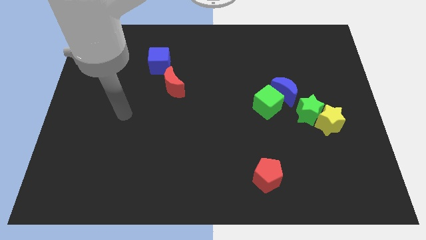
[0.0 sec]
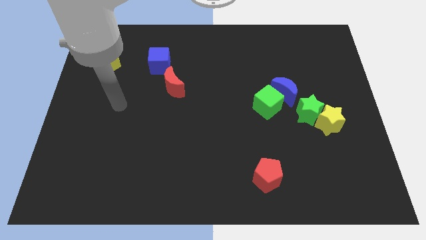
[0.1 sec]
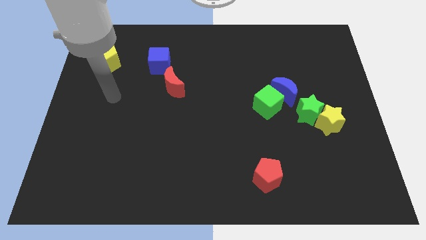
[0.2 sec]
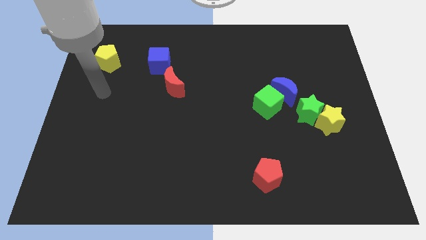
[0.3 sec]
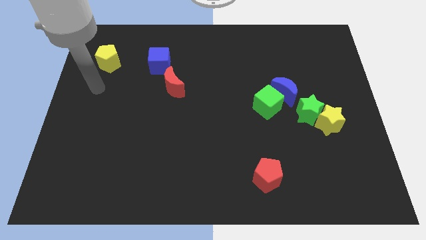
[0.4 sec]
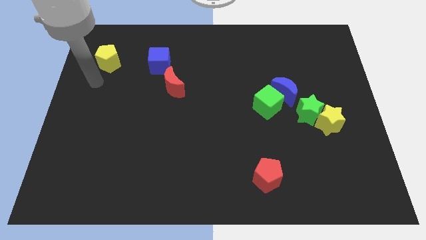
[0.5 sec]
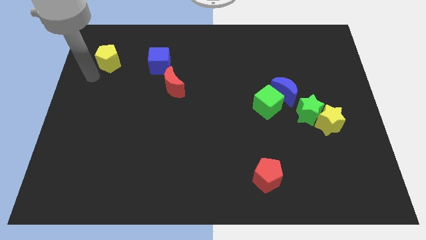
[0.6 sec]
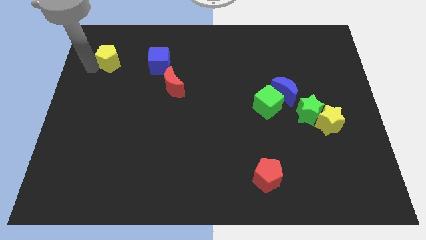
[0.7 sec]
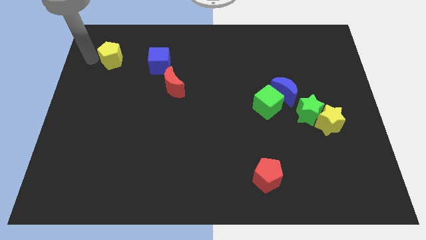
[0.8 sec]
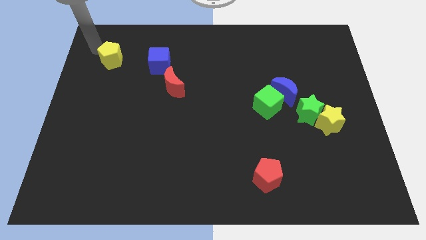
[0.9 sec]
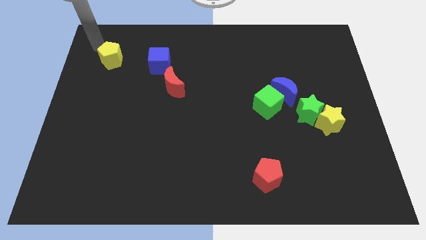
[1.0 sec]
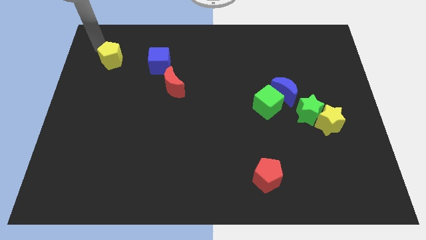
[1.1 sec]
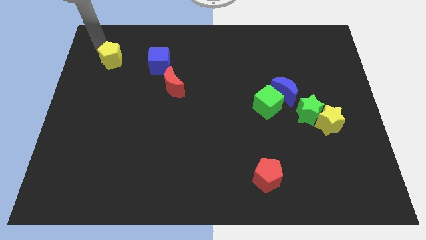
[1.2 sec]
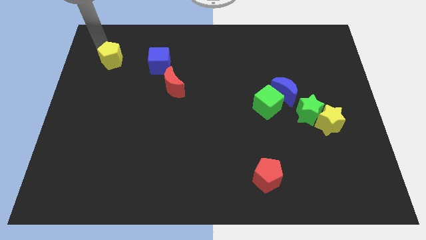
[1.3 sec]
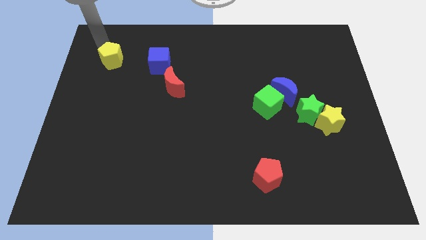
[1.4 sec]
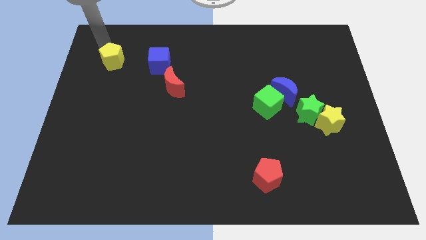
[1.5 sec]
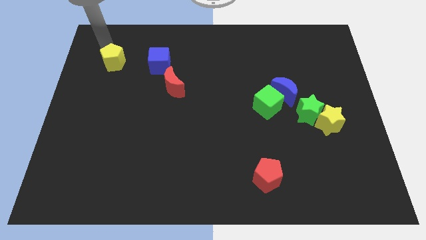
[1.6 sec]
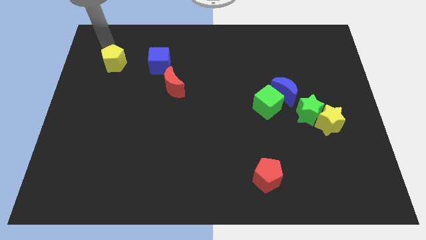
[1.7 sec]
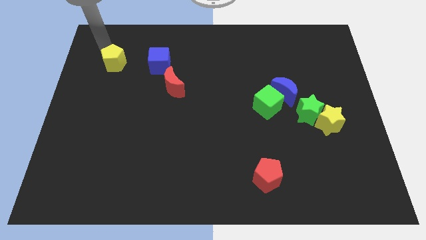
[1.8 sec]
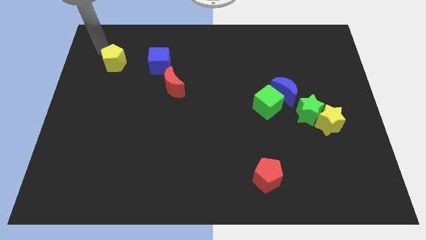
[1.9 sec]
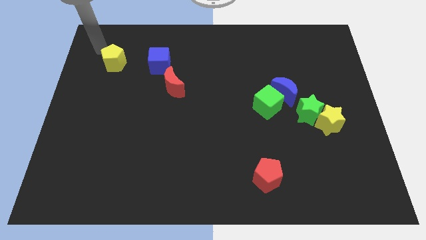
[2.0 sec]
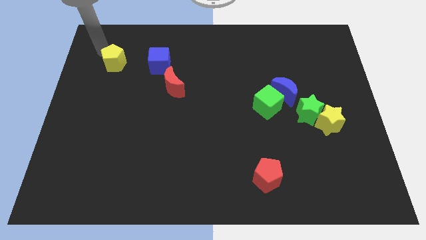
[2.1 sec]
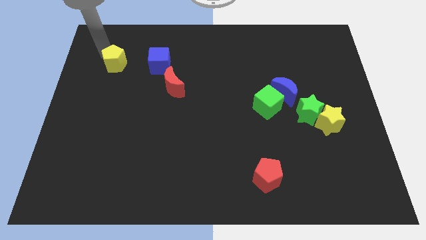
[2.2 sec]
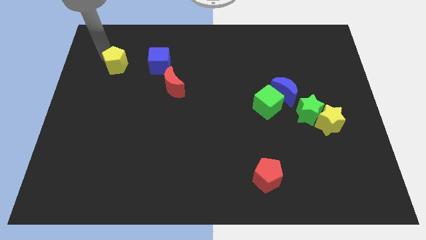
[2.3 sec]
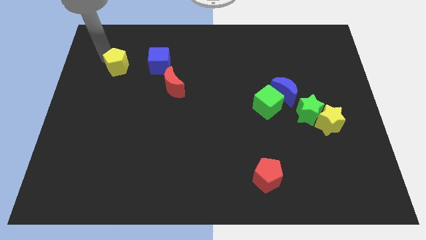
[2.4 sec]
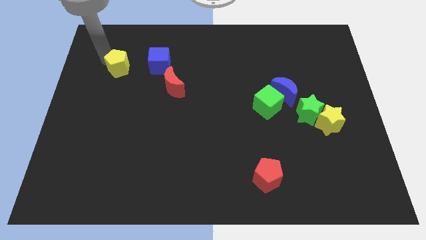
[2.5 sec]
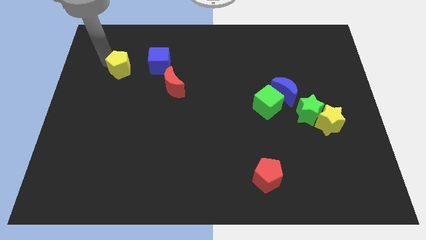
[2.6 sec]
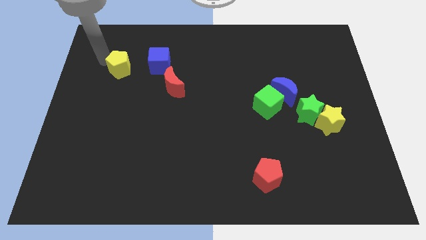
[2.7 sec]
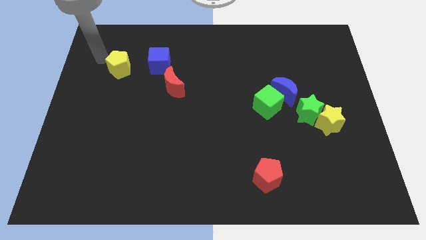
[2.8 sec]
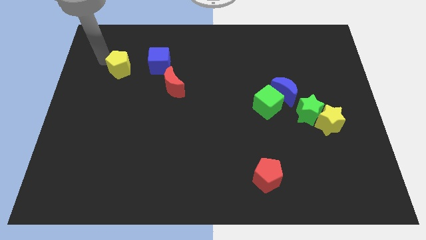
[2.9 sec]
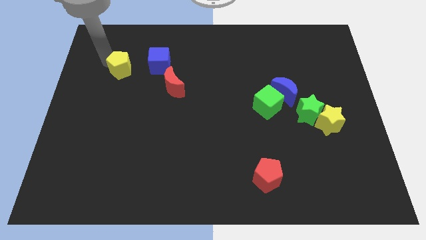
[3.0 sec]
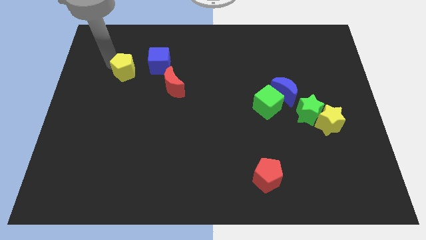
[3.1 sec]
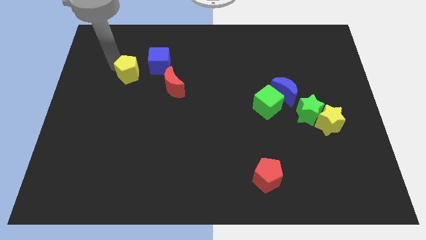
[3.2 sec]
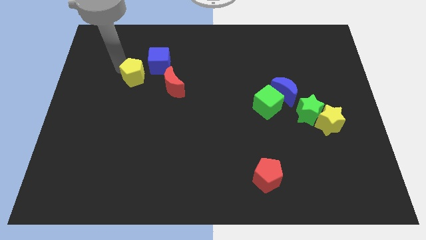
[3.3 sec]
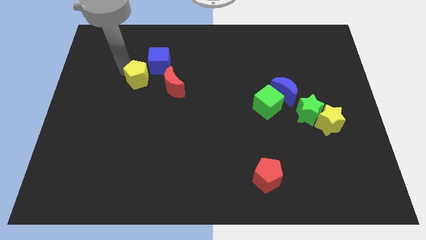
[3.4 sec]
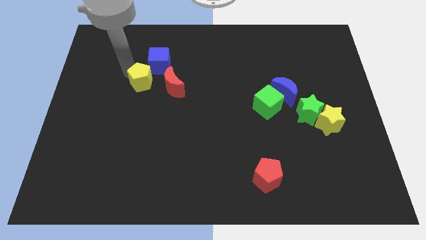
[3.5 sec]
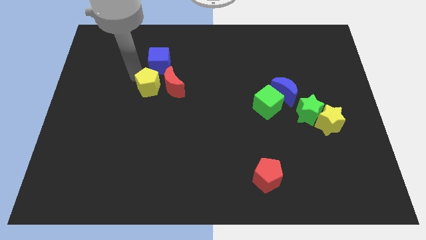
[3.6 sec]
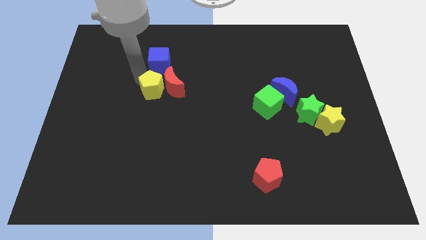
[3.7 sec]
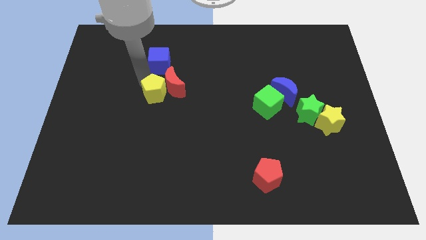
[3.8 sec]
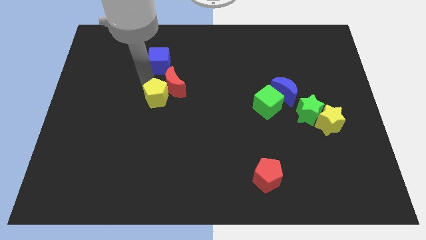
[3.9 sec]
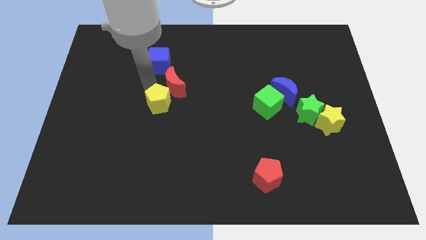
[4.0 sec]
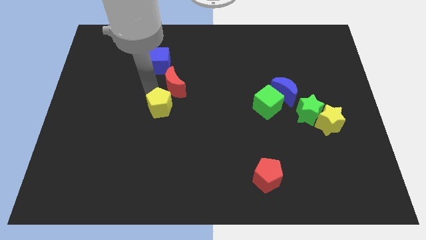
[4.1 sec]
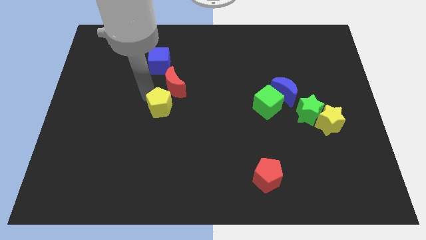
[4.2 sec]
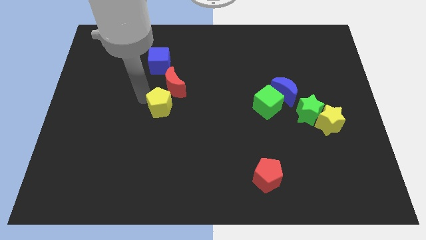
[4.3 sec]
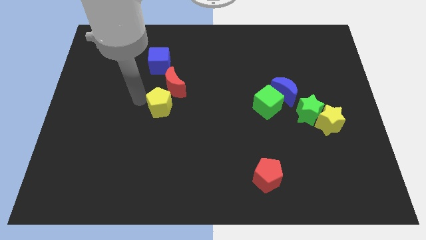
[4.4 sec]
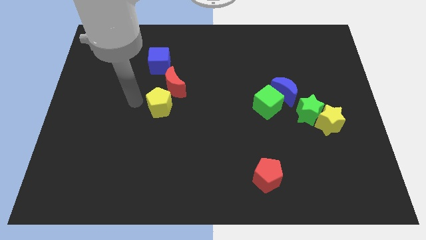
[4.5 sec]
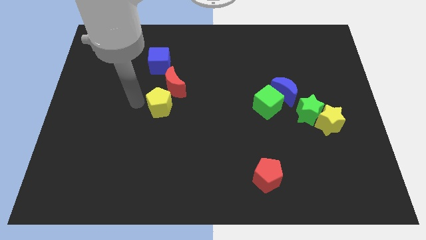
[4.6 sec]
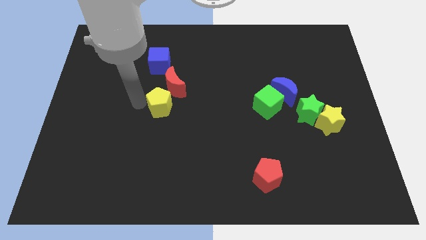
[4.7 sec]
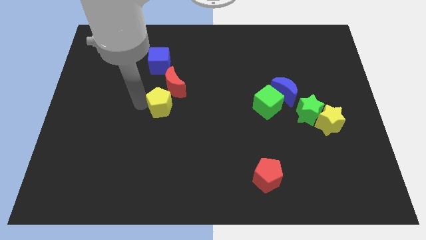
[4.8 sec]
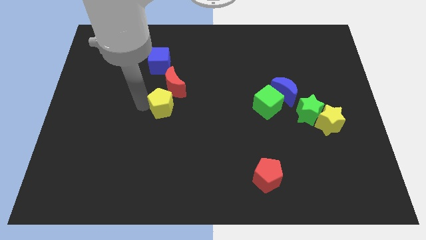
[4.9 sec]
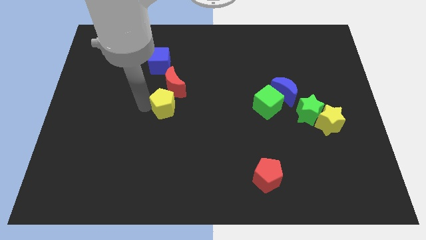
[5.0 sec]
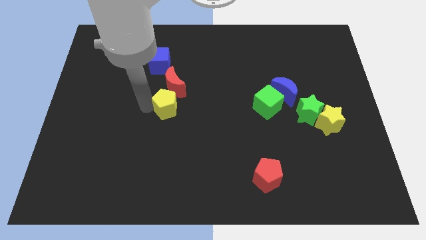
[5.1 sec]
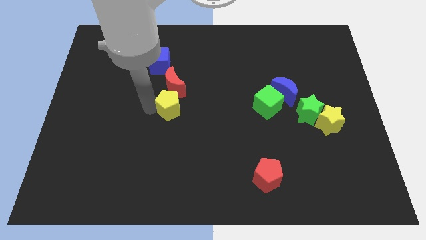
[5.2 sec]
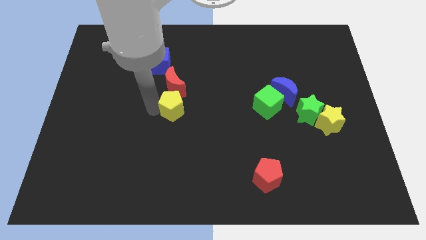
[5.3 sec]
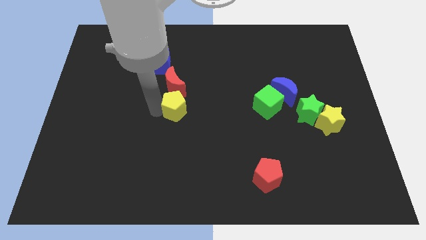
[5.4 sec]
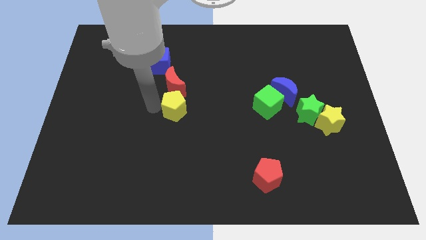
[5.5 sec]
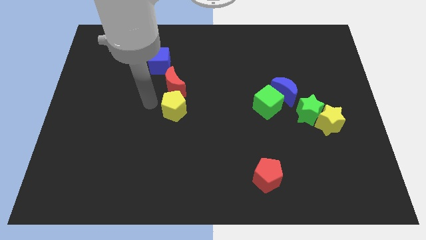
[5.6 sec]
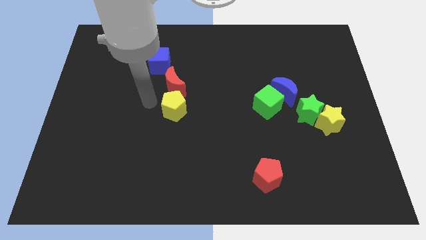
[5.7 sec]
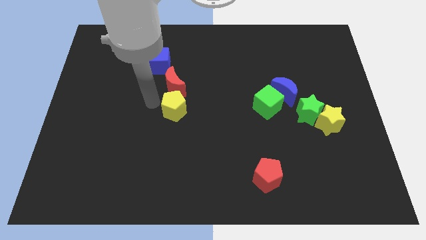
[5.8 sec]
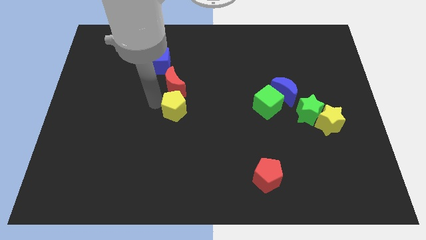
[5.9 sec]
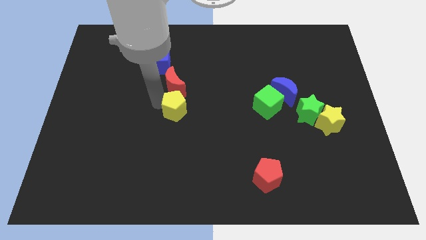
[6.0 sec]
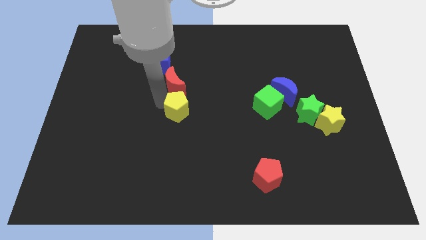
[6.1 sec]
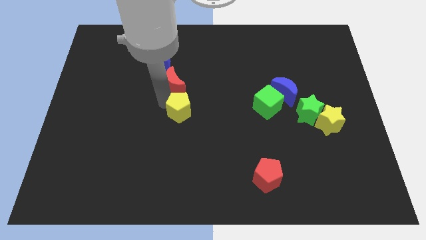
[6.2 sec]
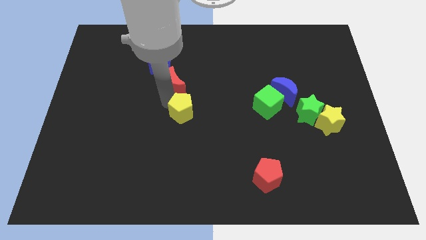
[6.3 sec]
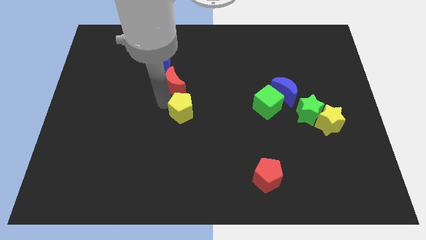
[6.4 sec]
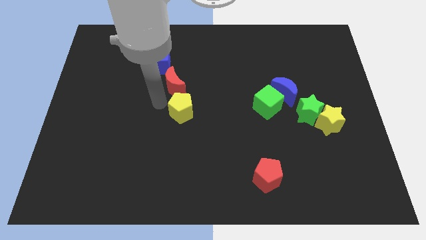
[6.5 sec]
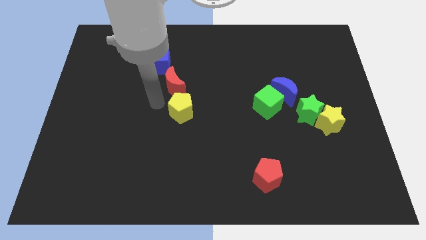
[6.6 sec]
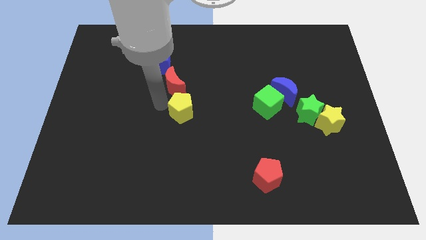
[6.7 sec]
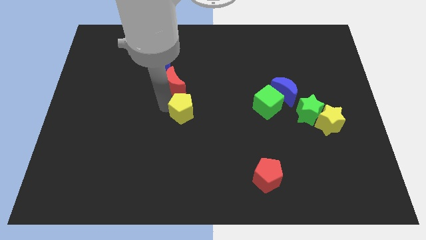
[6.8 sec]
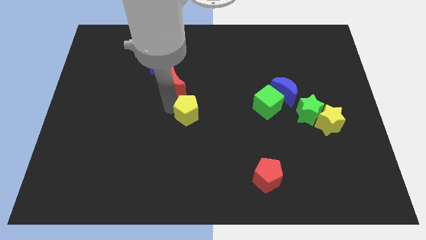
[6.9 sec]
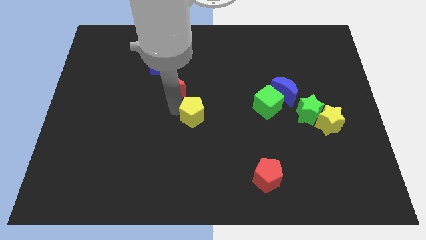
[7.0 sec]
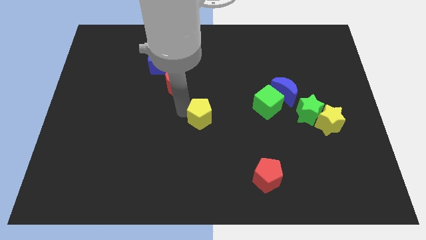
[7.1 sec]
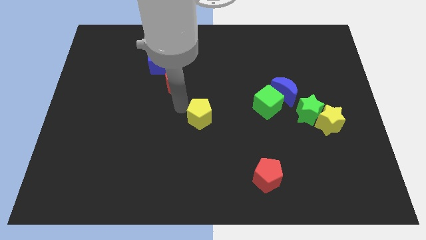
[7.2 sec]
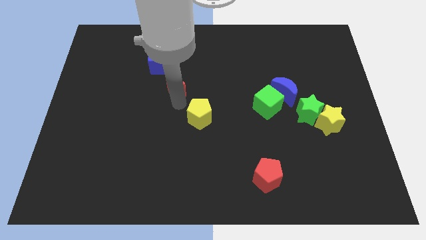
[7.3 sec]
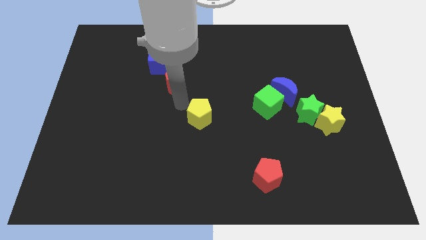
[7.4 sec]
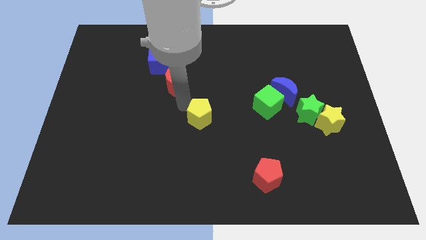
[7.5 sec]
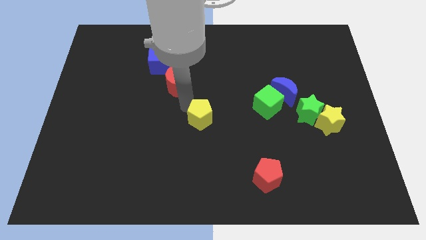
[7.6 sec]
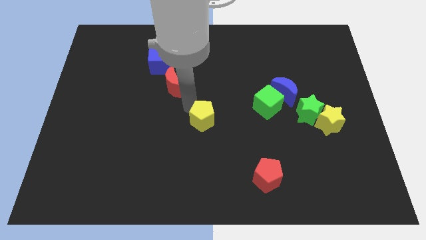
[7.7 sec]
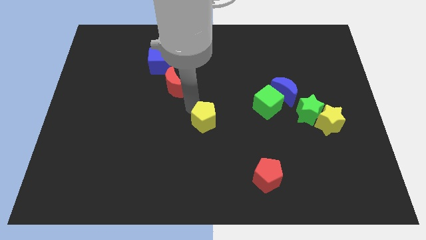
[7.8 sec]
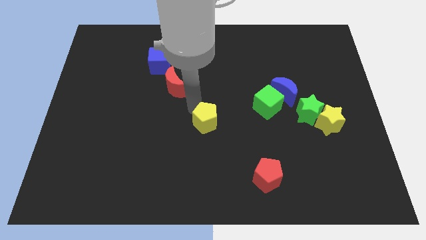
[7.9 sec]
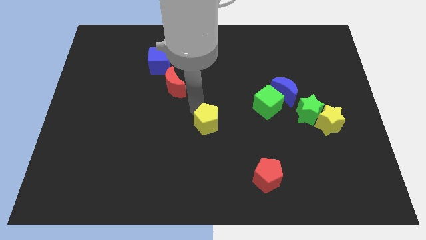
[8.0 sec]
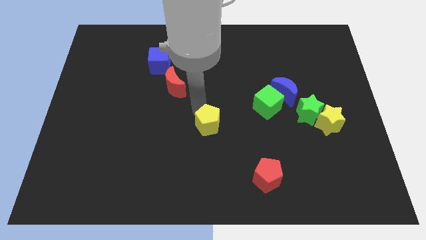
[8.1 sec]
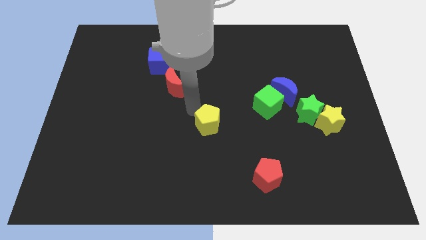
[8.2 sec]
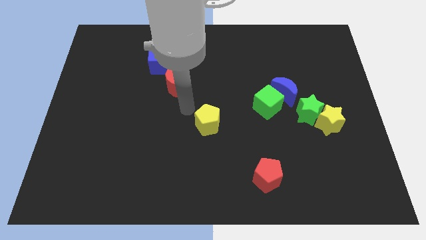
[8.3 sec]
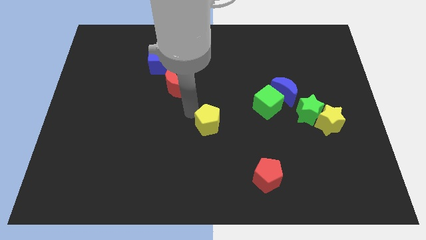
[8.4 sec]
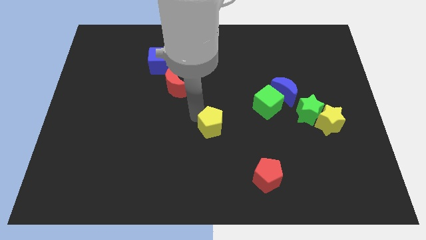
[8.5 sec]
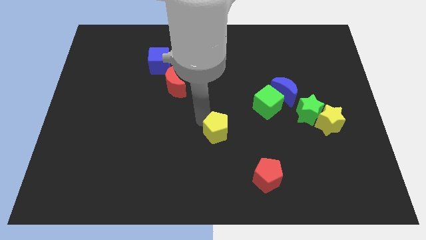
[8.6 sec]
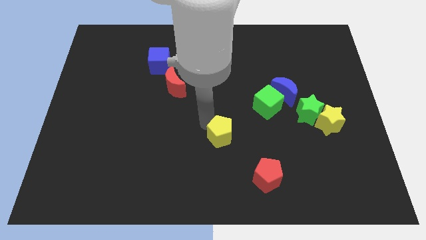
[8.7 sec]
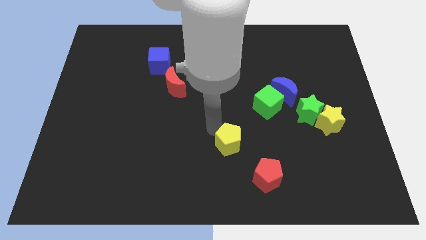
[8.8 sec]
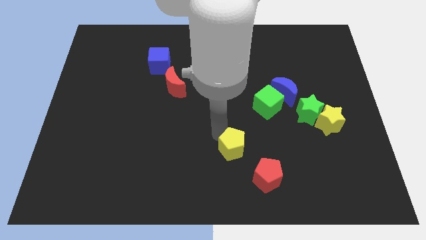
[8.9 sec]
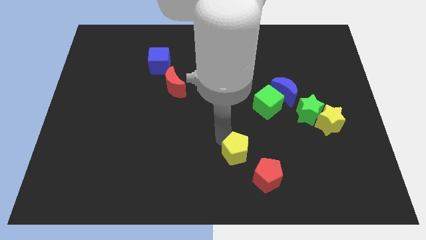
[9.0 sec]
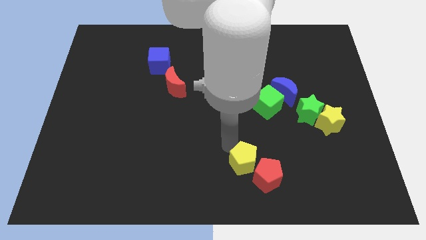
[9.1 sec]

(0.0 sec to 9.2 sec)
put the yellow pentagon to the red pentagon
